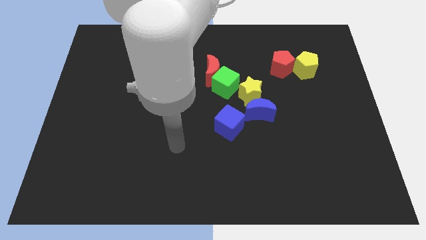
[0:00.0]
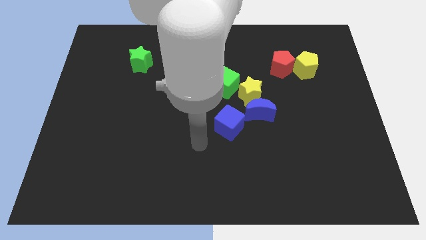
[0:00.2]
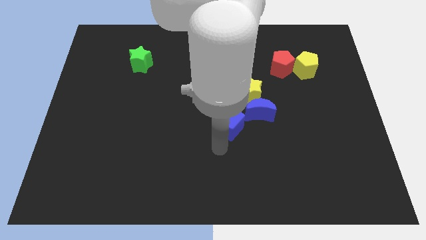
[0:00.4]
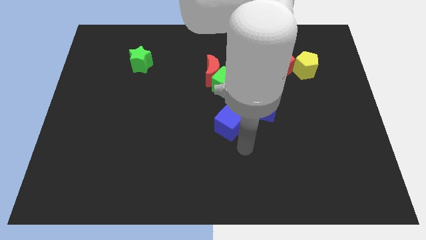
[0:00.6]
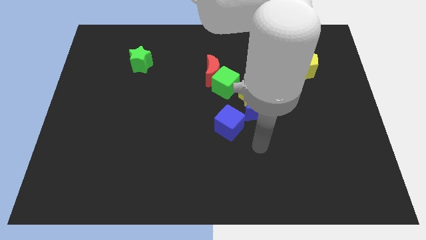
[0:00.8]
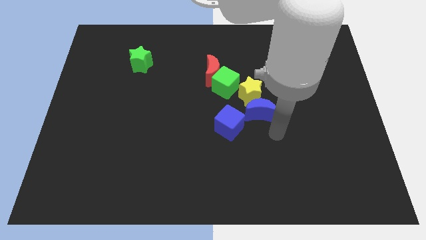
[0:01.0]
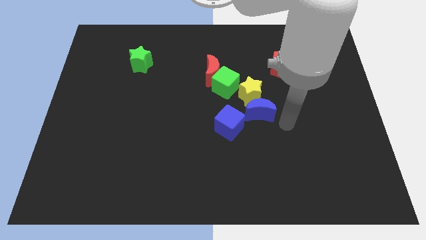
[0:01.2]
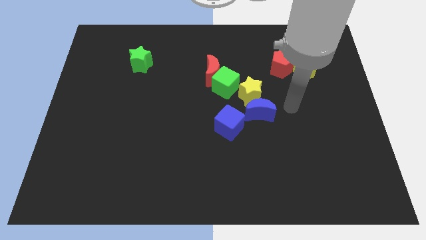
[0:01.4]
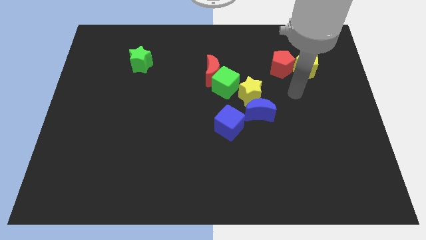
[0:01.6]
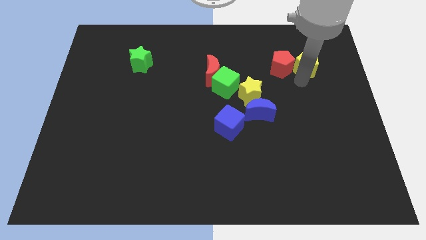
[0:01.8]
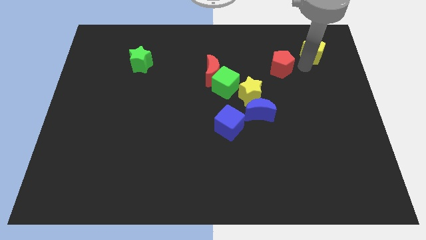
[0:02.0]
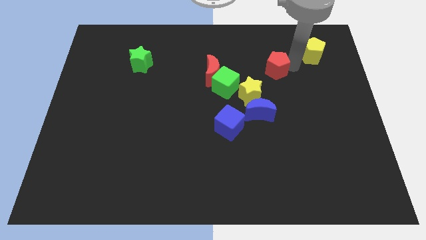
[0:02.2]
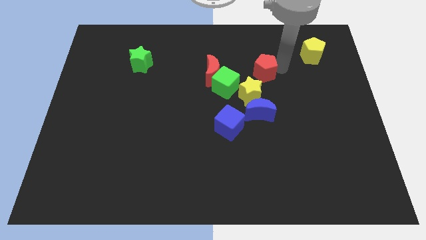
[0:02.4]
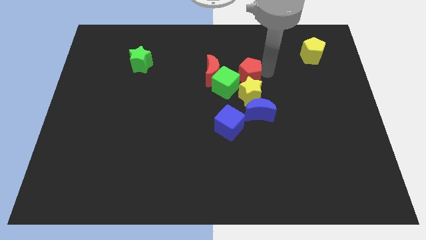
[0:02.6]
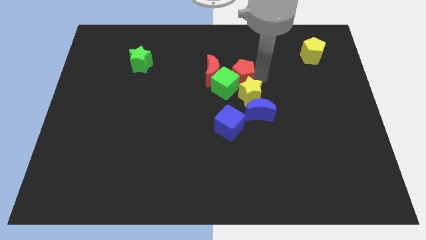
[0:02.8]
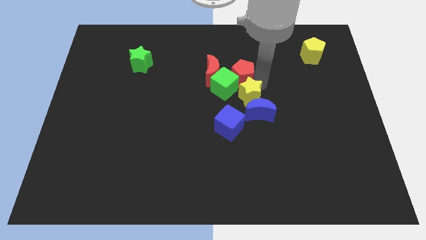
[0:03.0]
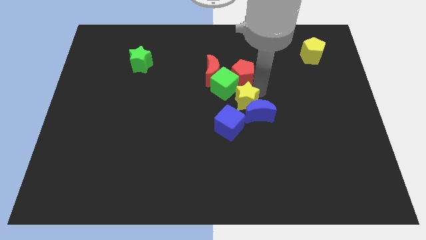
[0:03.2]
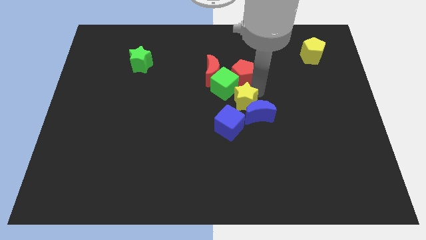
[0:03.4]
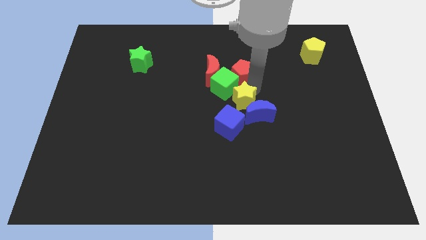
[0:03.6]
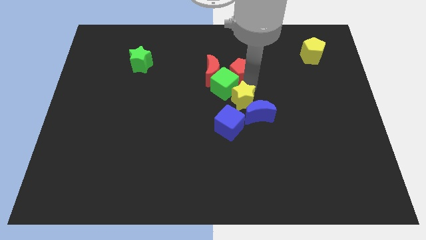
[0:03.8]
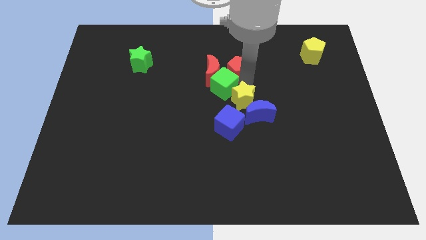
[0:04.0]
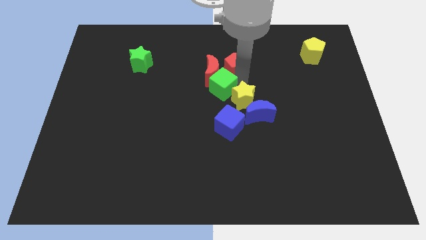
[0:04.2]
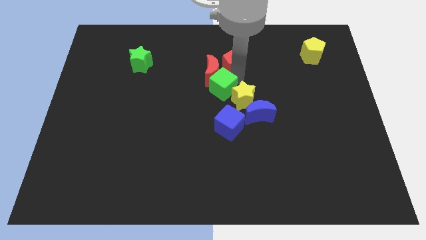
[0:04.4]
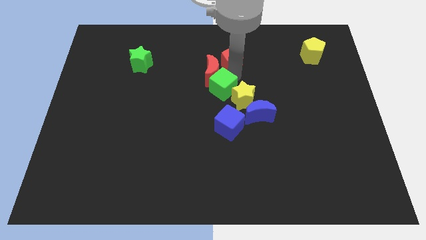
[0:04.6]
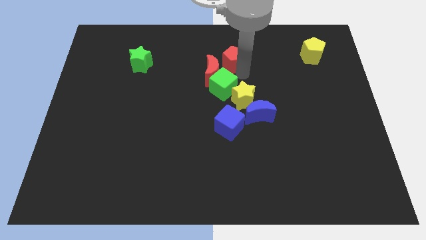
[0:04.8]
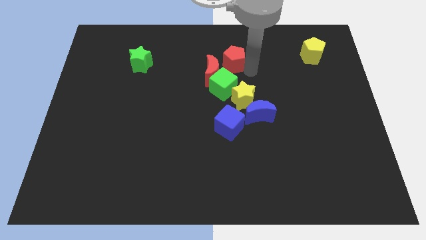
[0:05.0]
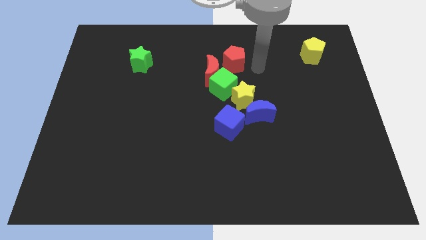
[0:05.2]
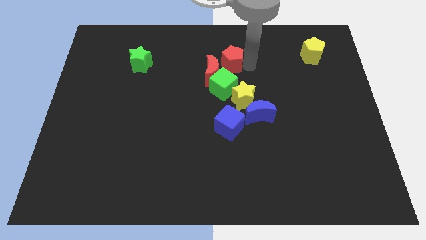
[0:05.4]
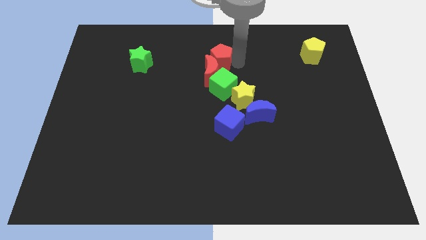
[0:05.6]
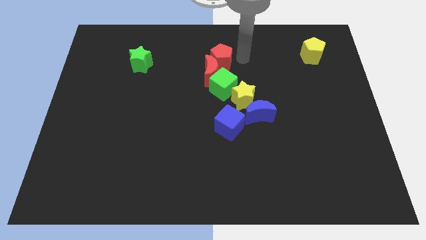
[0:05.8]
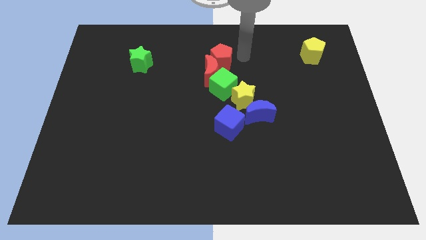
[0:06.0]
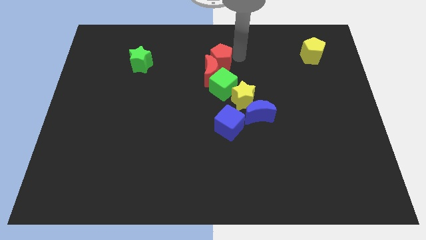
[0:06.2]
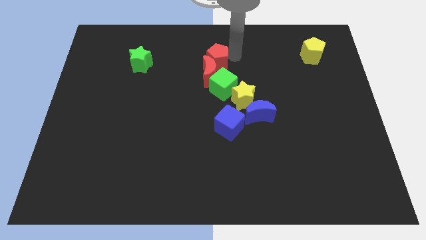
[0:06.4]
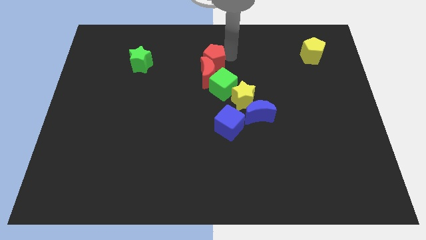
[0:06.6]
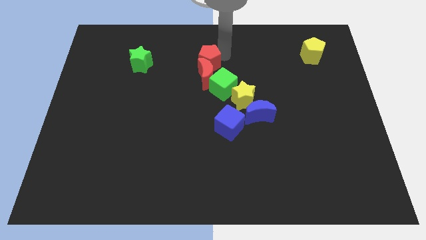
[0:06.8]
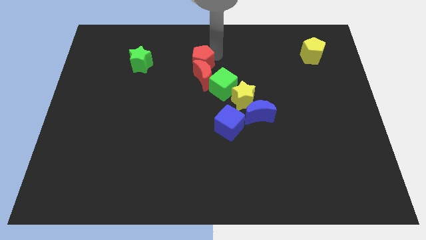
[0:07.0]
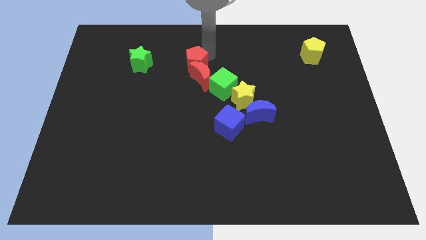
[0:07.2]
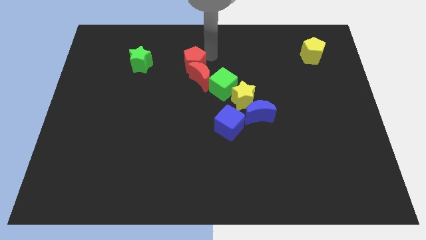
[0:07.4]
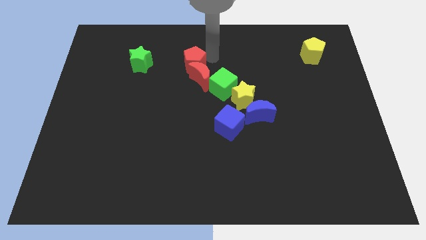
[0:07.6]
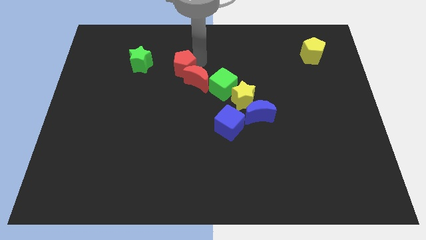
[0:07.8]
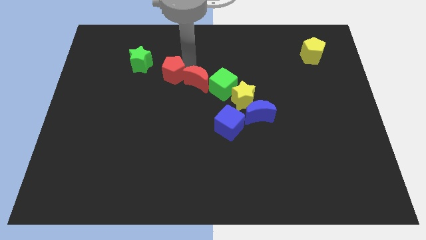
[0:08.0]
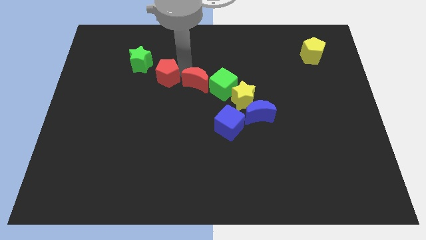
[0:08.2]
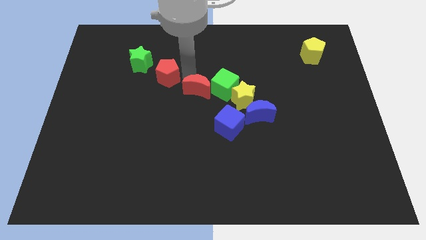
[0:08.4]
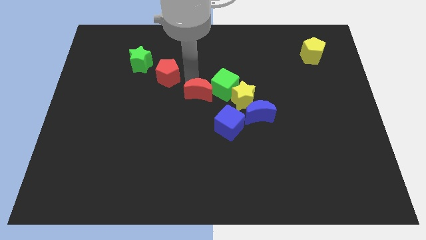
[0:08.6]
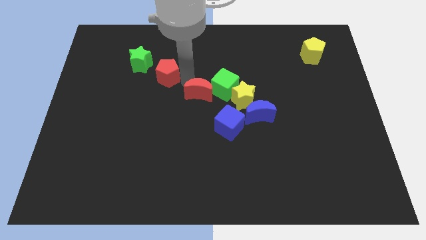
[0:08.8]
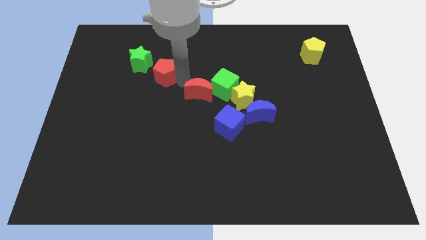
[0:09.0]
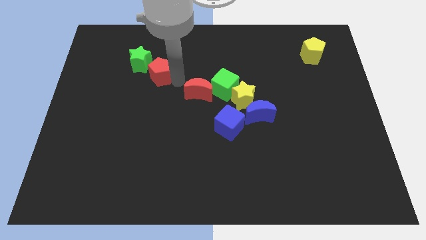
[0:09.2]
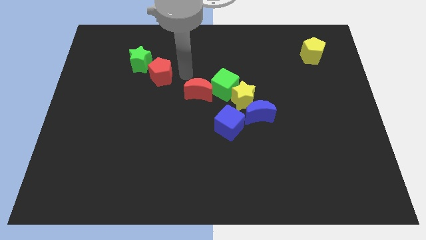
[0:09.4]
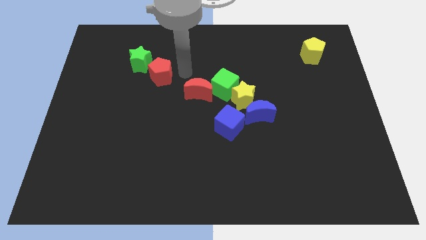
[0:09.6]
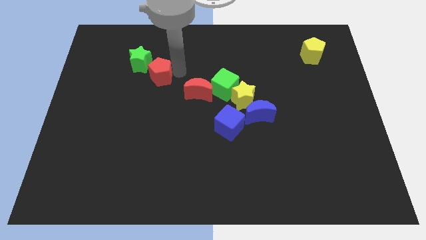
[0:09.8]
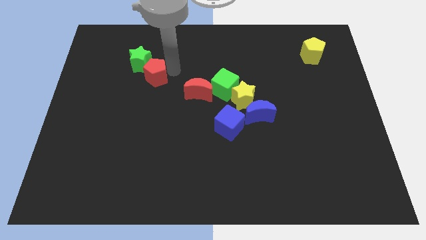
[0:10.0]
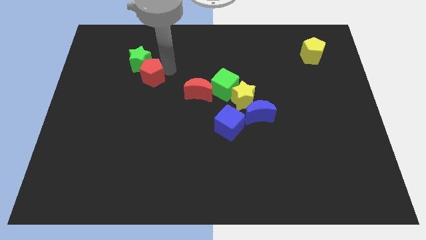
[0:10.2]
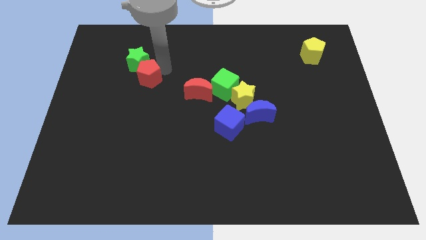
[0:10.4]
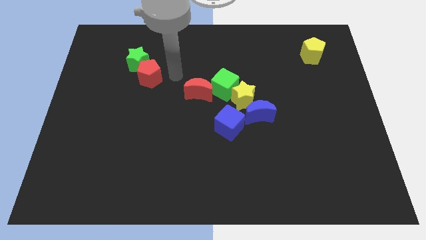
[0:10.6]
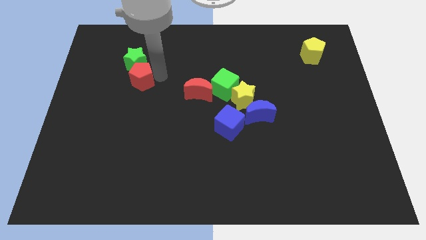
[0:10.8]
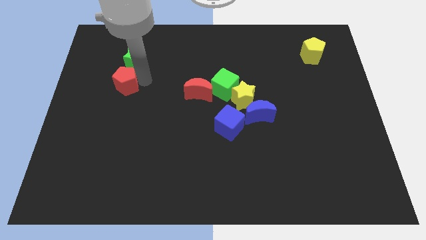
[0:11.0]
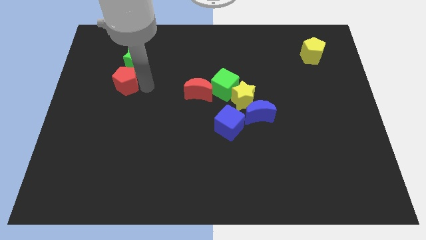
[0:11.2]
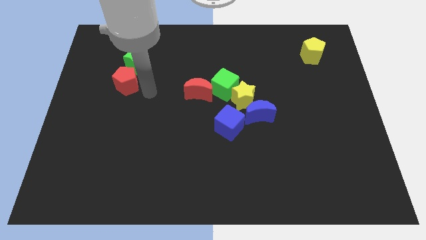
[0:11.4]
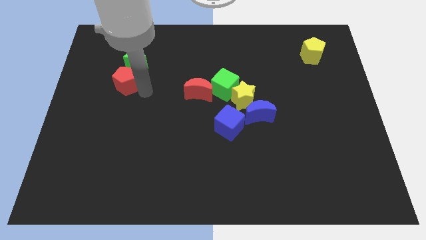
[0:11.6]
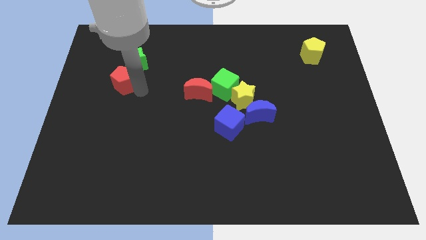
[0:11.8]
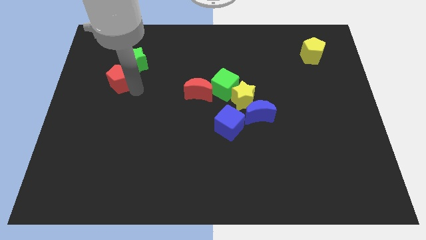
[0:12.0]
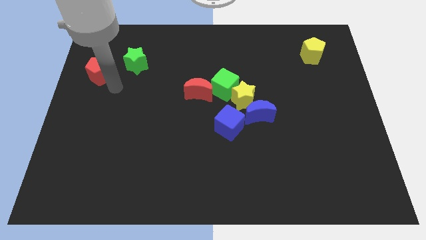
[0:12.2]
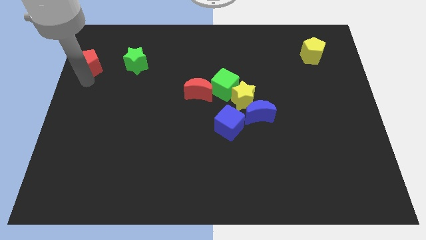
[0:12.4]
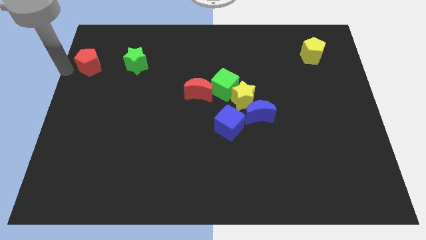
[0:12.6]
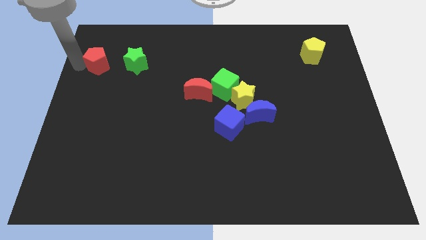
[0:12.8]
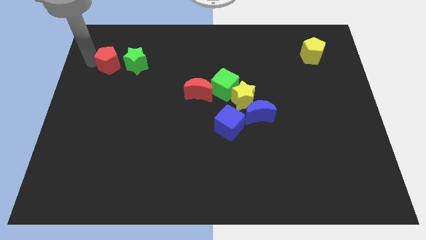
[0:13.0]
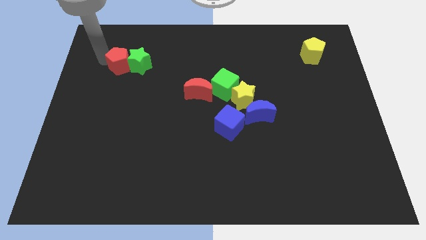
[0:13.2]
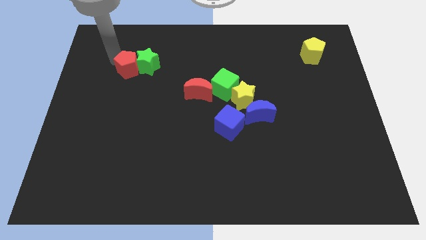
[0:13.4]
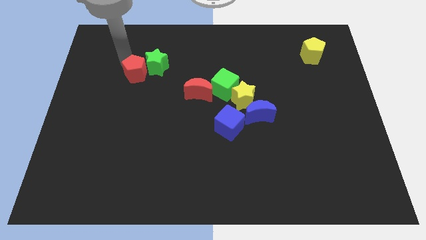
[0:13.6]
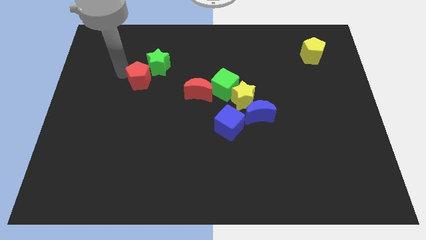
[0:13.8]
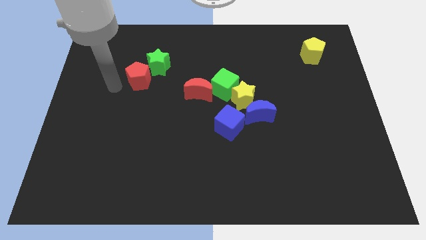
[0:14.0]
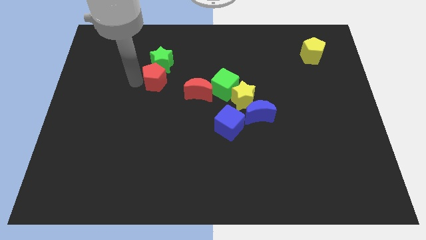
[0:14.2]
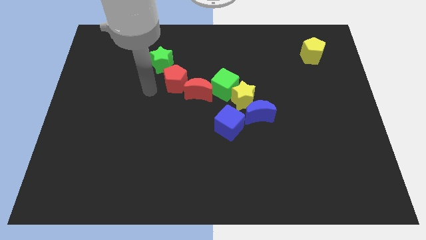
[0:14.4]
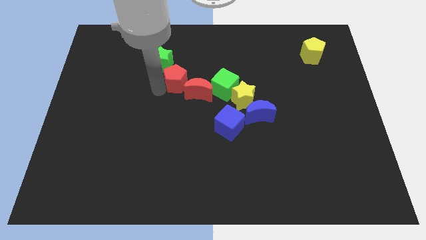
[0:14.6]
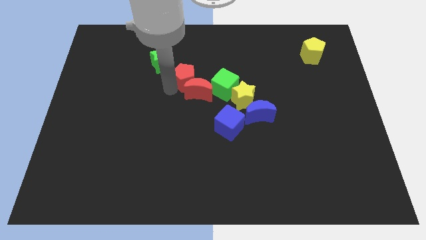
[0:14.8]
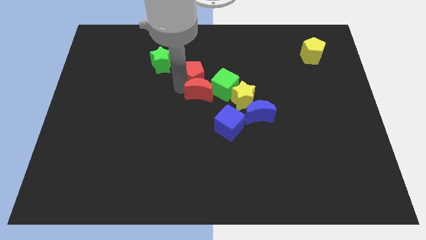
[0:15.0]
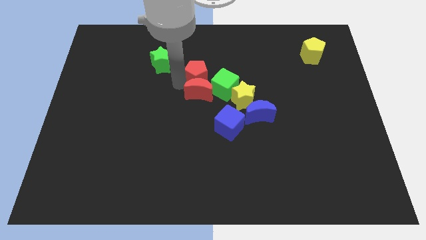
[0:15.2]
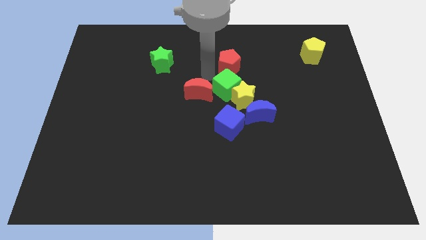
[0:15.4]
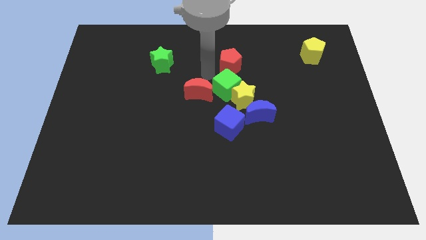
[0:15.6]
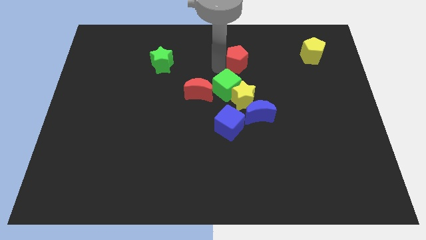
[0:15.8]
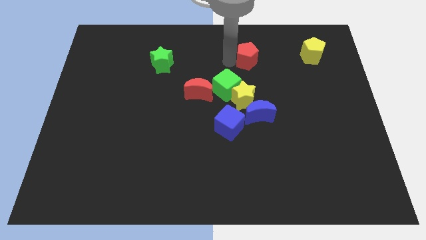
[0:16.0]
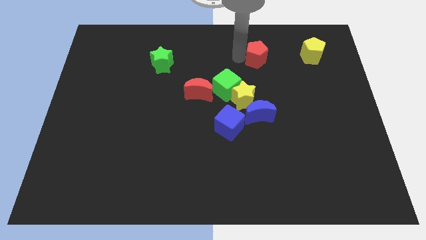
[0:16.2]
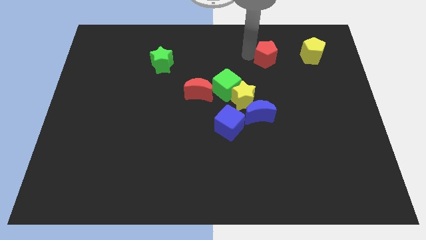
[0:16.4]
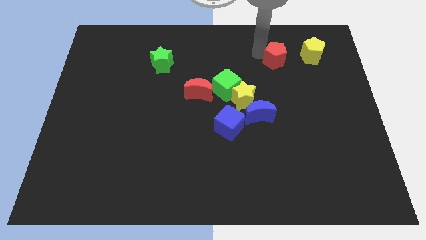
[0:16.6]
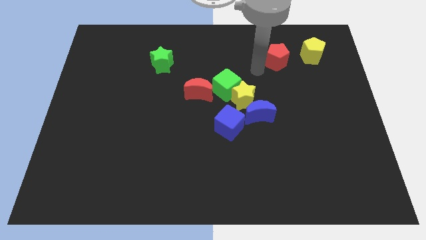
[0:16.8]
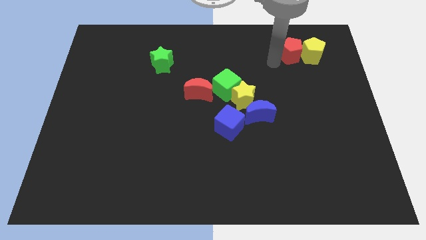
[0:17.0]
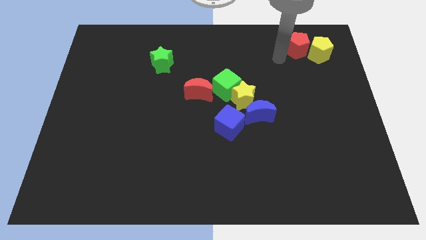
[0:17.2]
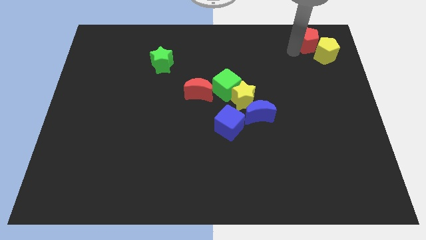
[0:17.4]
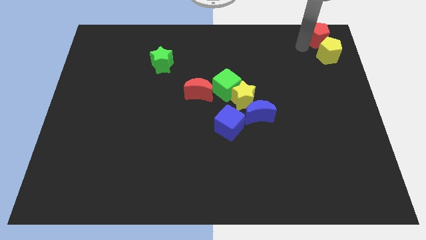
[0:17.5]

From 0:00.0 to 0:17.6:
slide the red pentagon to the top right corner
